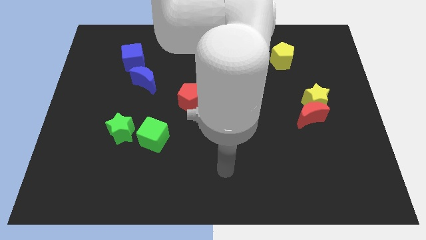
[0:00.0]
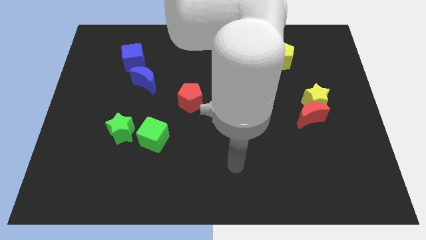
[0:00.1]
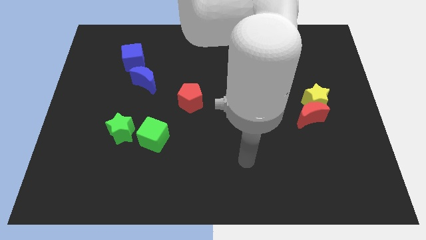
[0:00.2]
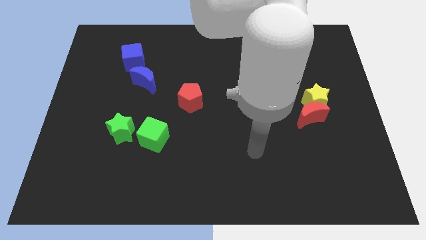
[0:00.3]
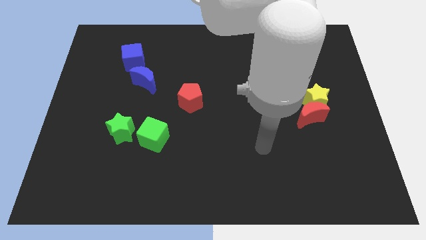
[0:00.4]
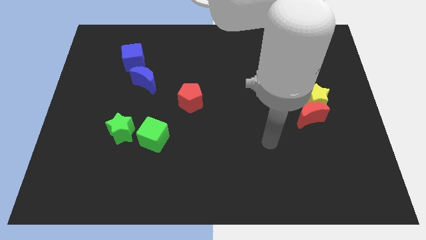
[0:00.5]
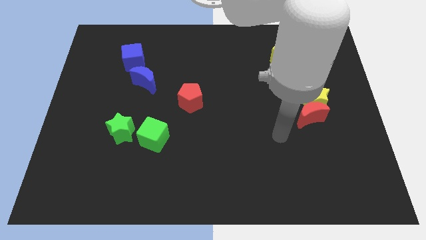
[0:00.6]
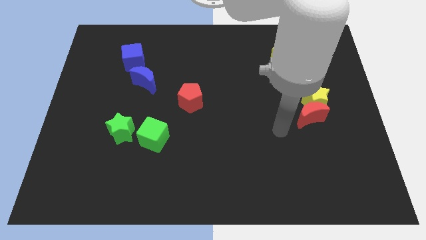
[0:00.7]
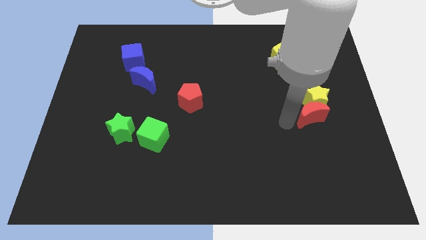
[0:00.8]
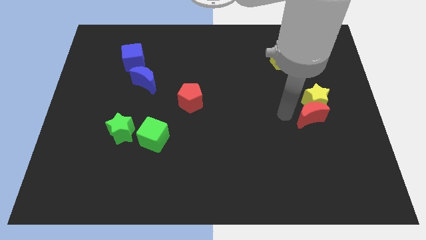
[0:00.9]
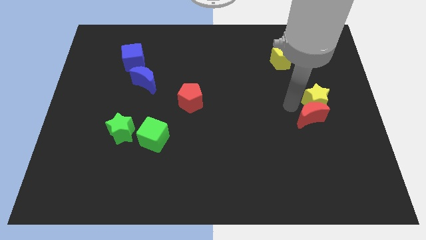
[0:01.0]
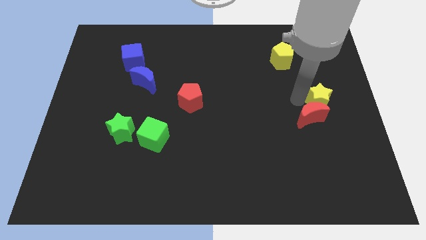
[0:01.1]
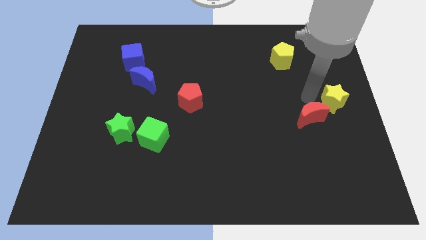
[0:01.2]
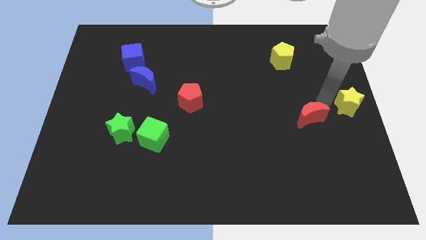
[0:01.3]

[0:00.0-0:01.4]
separate the red moon from the yellow star

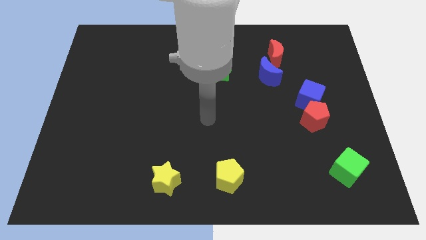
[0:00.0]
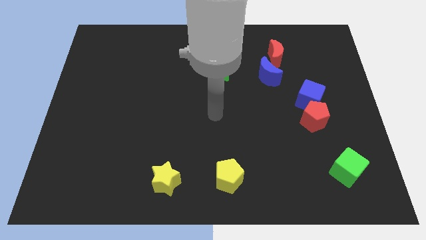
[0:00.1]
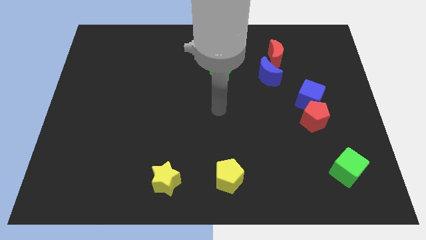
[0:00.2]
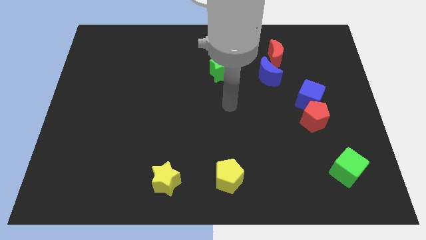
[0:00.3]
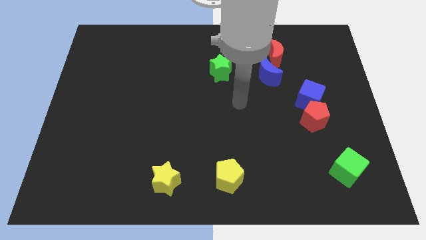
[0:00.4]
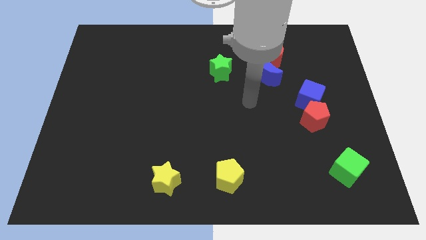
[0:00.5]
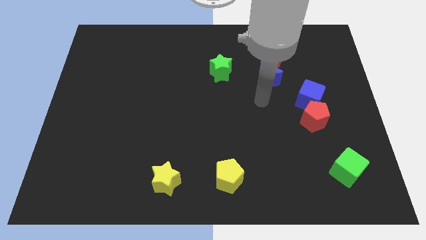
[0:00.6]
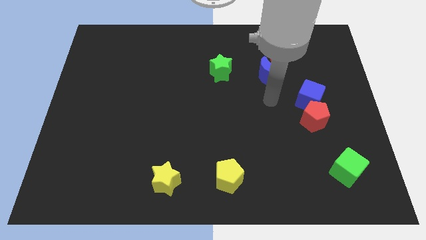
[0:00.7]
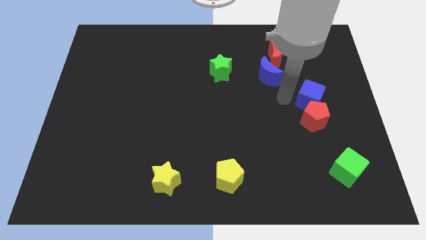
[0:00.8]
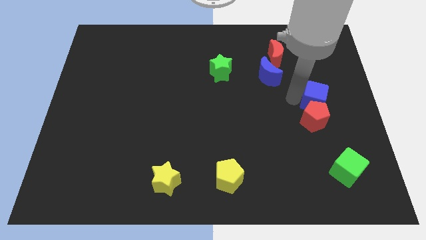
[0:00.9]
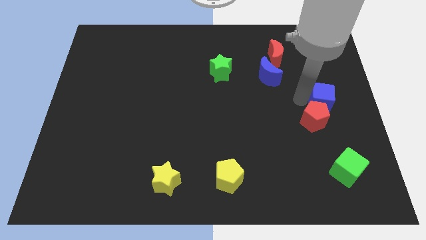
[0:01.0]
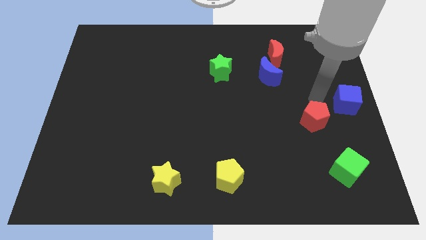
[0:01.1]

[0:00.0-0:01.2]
pull the red pentagon apart from the blue cube

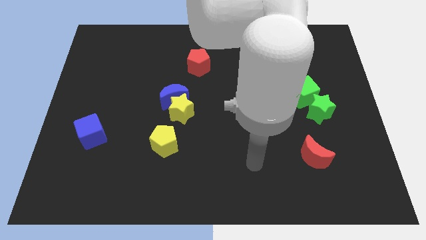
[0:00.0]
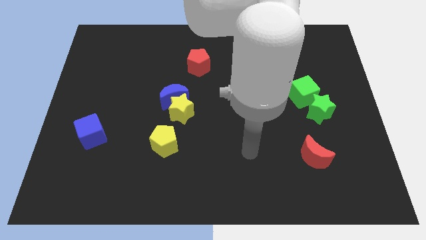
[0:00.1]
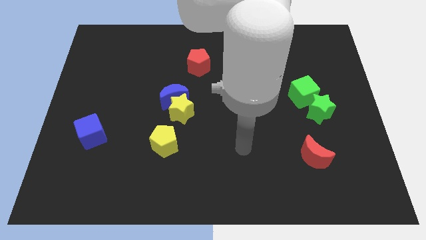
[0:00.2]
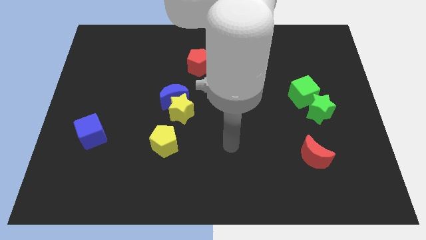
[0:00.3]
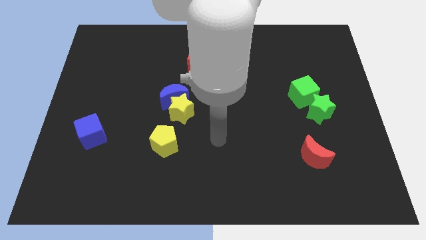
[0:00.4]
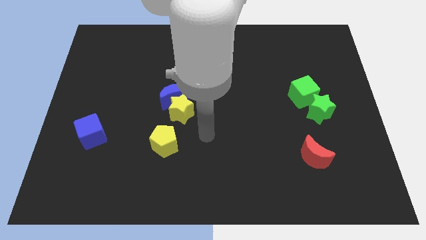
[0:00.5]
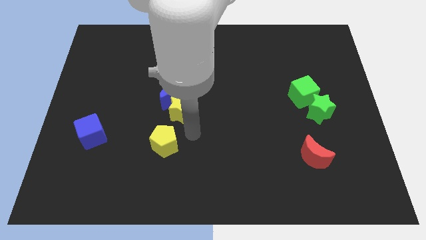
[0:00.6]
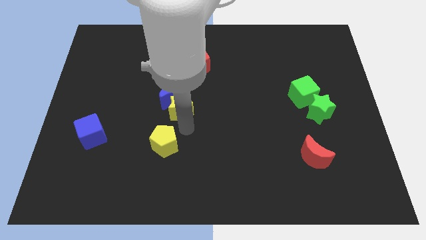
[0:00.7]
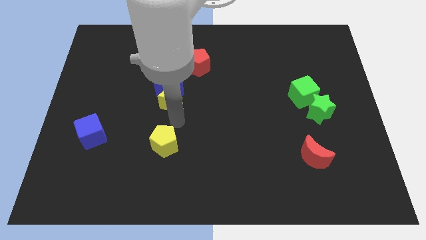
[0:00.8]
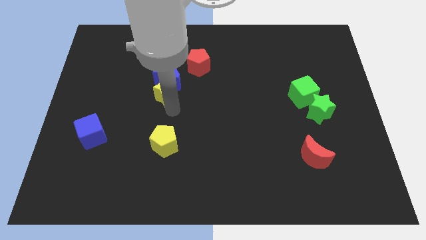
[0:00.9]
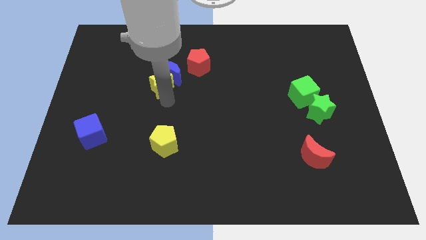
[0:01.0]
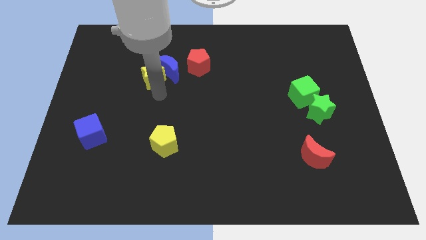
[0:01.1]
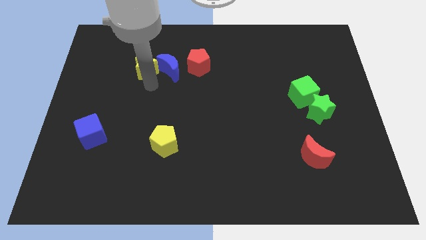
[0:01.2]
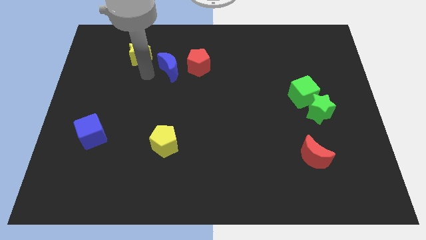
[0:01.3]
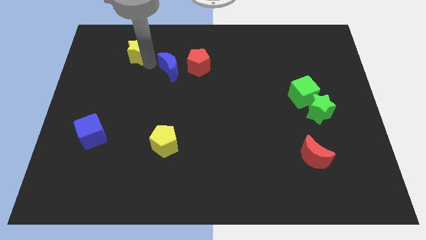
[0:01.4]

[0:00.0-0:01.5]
move the blue moon away from the yellow star

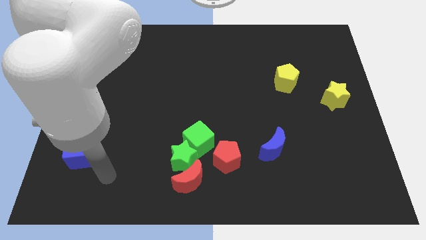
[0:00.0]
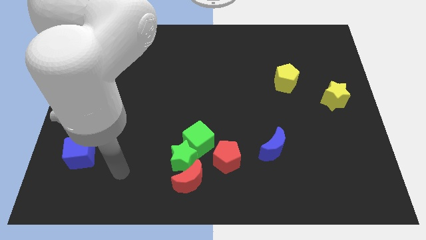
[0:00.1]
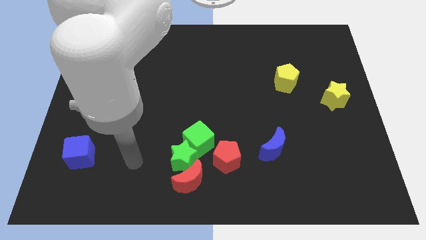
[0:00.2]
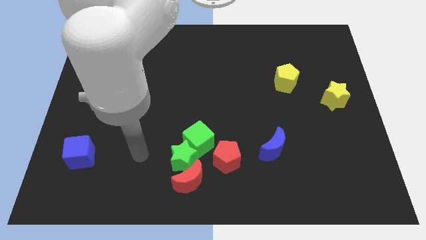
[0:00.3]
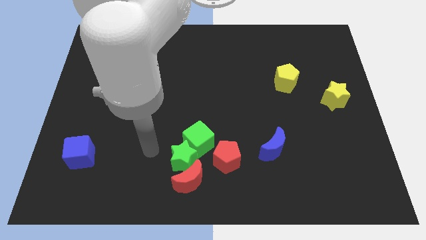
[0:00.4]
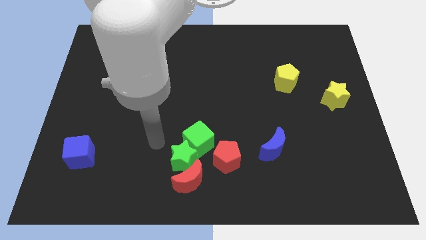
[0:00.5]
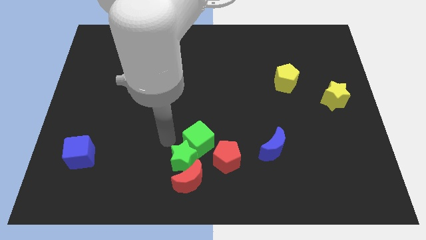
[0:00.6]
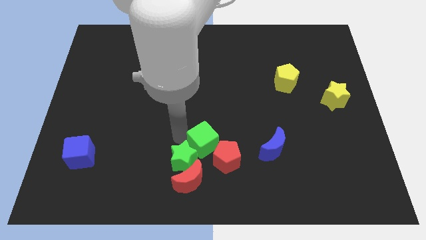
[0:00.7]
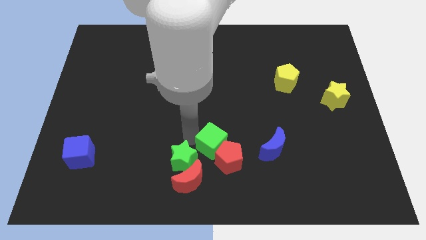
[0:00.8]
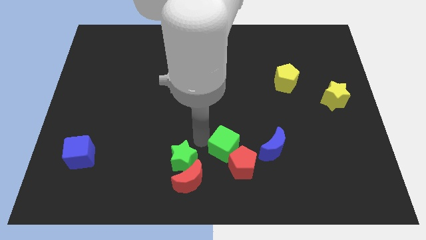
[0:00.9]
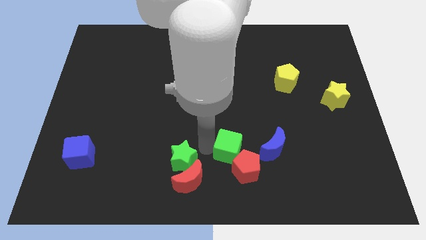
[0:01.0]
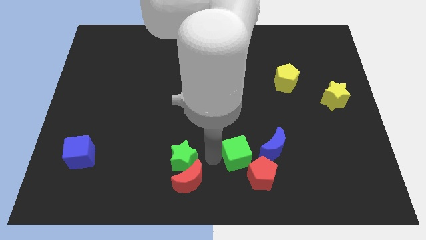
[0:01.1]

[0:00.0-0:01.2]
pull the green star apart from the group

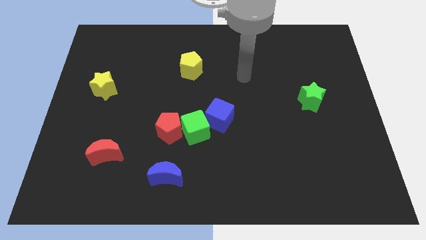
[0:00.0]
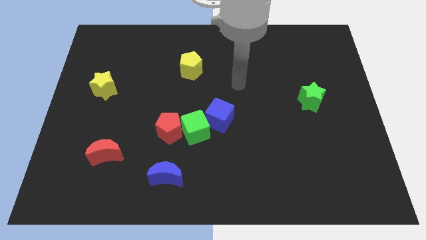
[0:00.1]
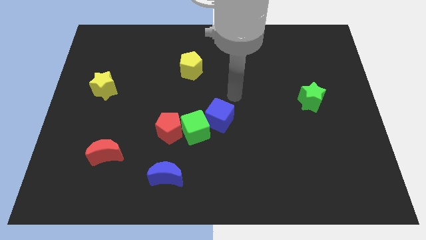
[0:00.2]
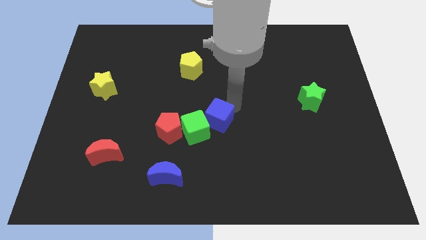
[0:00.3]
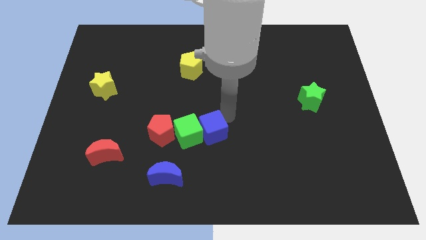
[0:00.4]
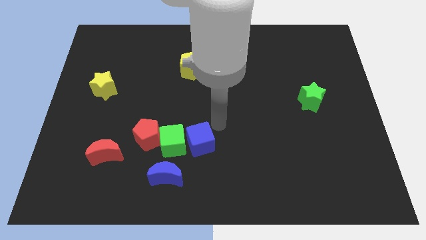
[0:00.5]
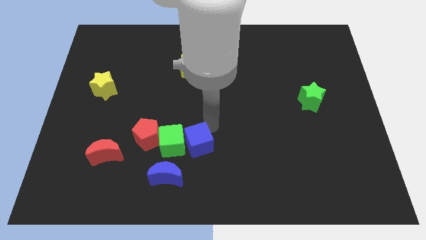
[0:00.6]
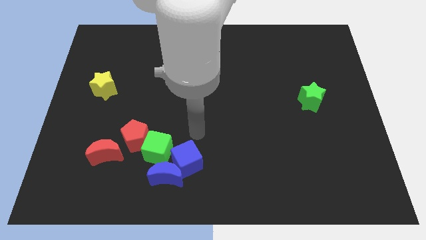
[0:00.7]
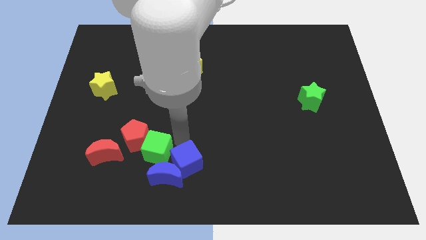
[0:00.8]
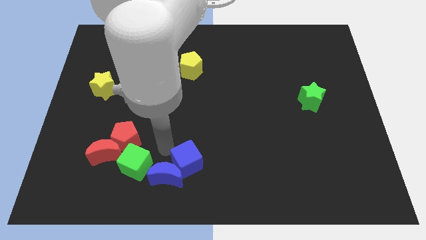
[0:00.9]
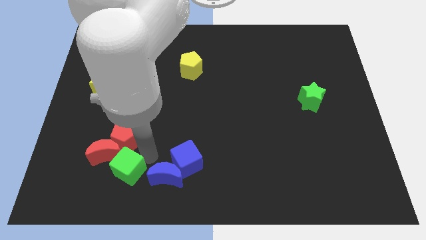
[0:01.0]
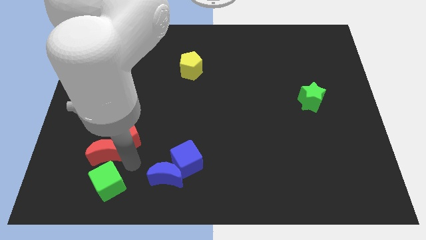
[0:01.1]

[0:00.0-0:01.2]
pull the red pentagon apart from the green cube

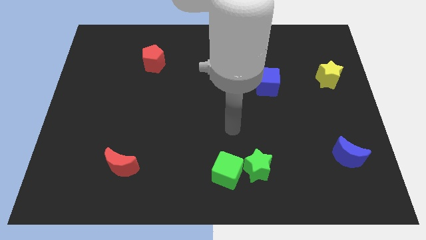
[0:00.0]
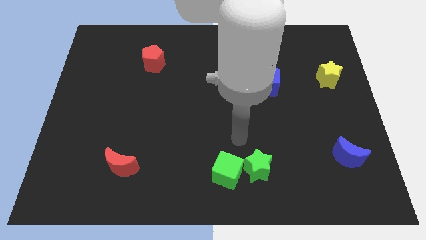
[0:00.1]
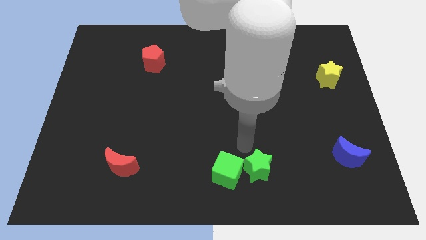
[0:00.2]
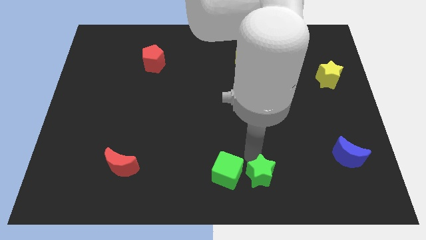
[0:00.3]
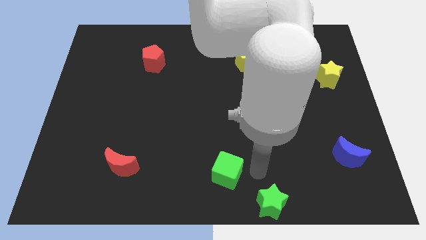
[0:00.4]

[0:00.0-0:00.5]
move the green cube away from the green star

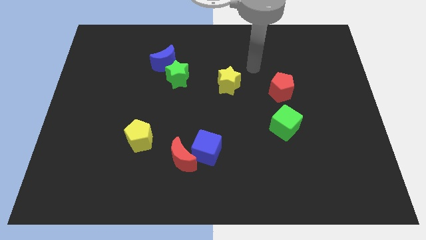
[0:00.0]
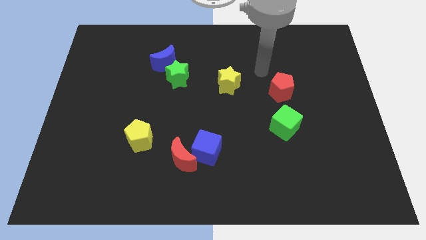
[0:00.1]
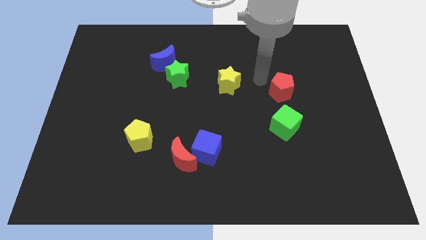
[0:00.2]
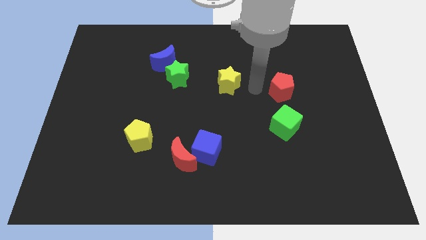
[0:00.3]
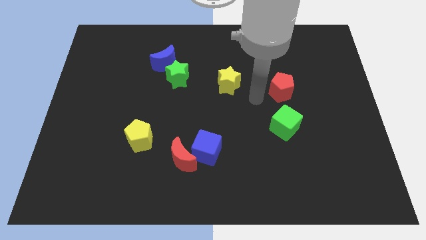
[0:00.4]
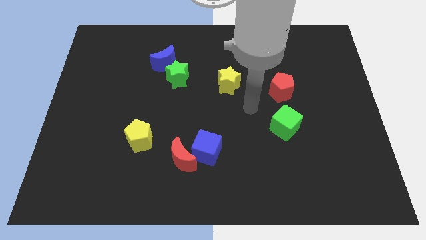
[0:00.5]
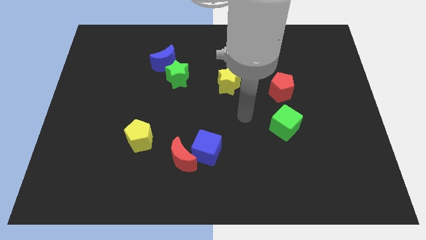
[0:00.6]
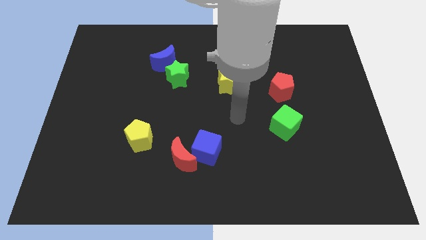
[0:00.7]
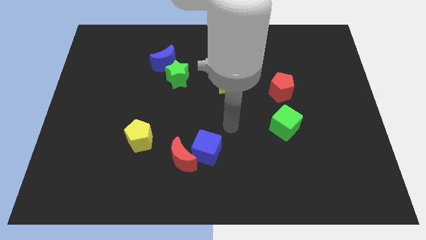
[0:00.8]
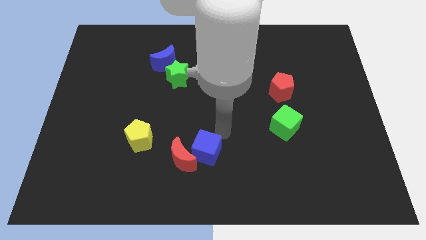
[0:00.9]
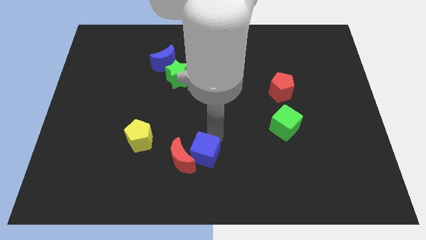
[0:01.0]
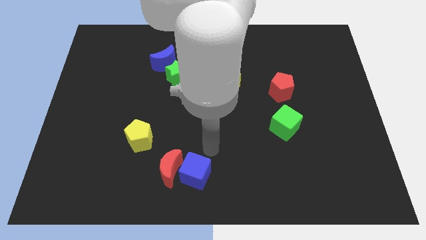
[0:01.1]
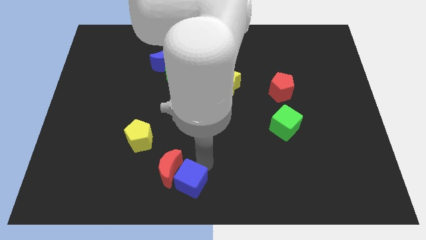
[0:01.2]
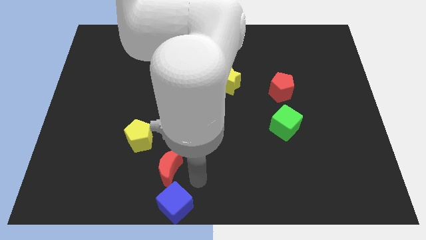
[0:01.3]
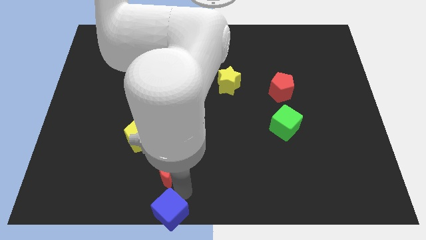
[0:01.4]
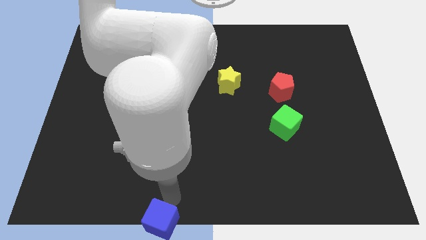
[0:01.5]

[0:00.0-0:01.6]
pull the red moon apart from the blue cube

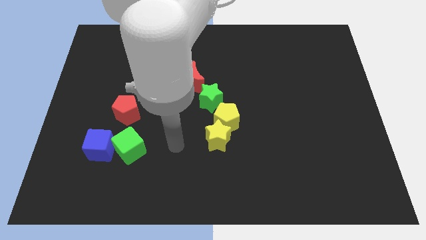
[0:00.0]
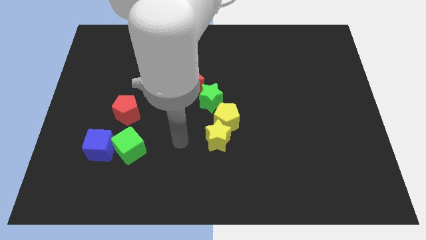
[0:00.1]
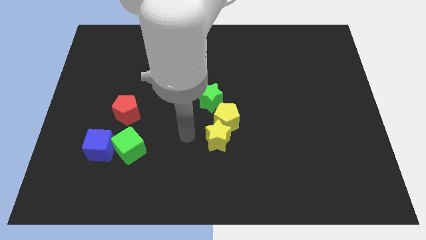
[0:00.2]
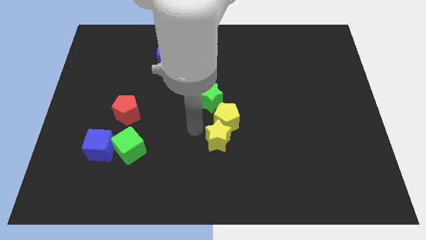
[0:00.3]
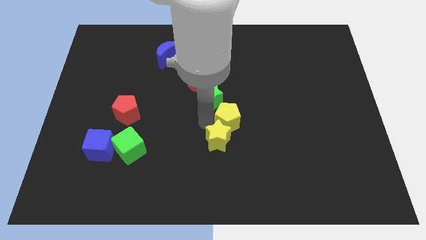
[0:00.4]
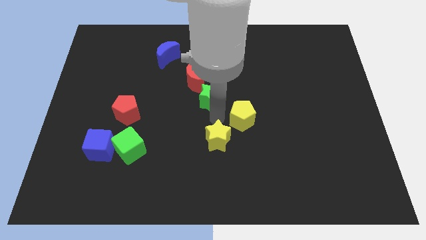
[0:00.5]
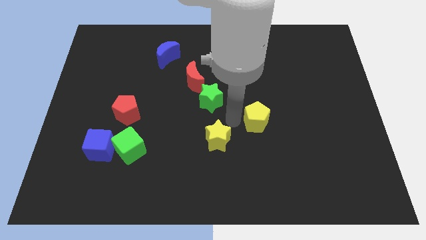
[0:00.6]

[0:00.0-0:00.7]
move the yellow star away from the yellow pentagon

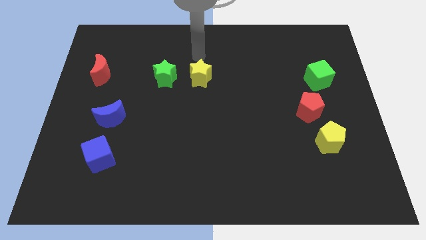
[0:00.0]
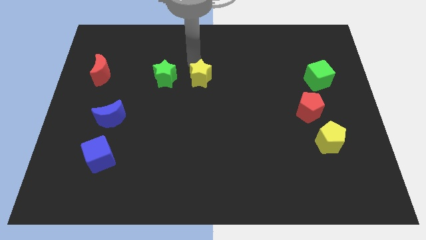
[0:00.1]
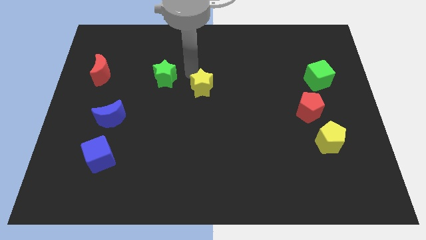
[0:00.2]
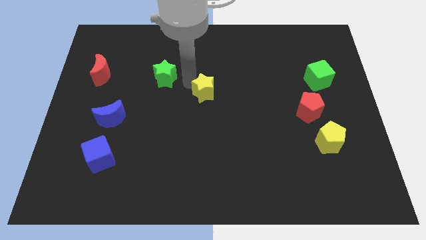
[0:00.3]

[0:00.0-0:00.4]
pull the green star apart from the yellow star
